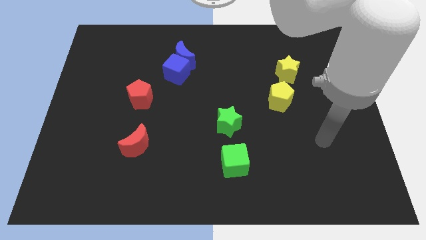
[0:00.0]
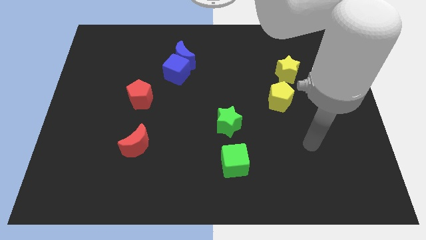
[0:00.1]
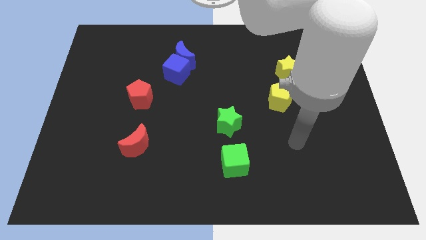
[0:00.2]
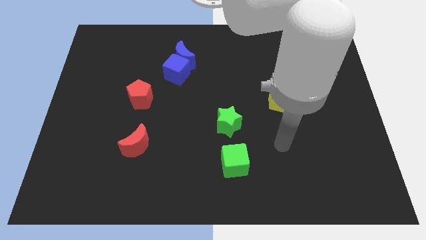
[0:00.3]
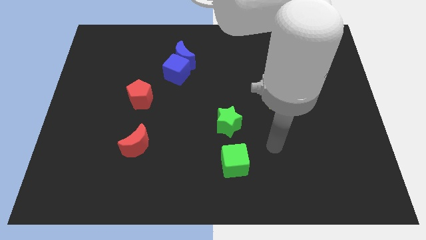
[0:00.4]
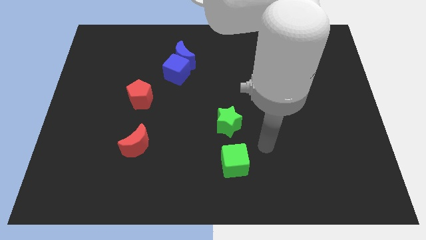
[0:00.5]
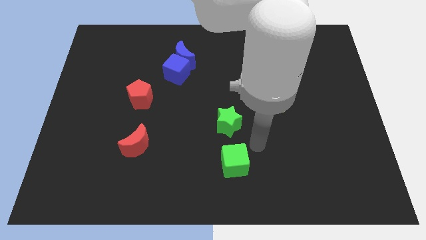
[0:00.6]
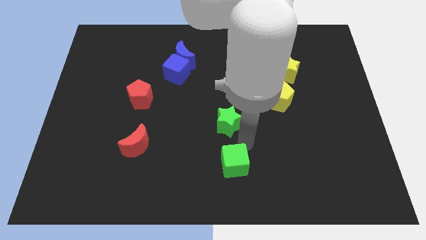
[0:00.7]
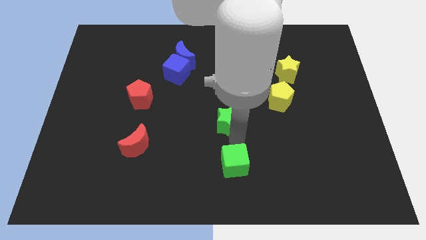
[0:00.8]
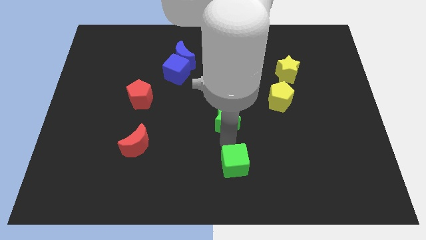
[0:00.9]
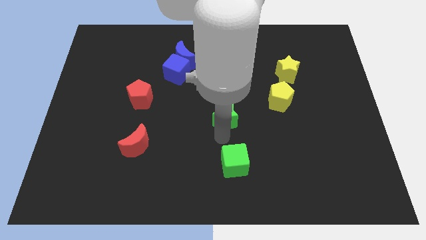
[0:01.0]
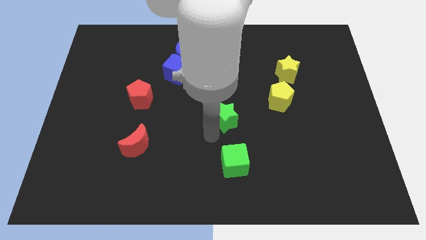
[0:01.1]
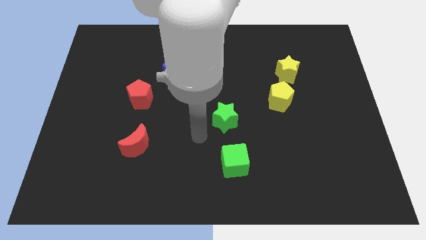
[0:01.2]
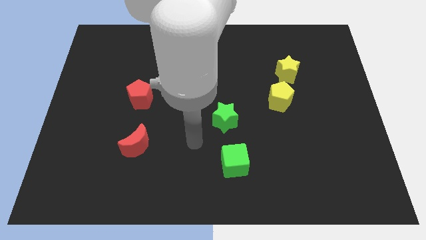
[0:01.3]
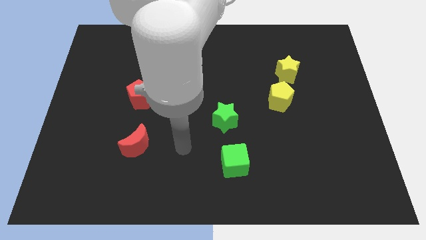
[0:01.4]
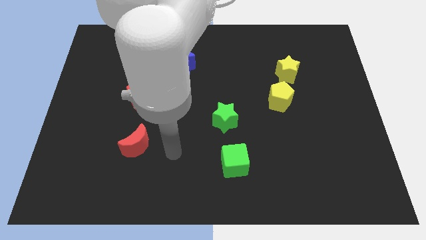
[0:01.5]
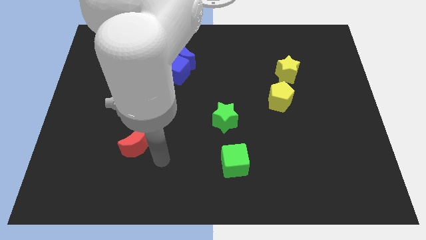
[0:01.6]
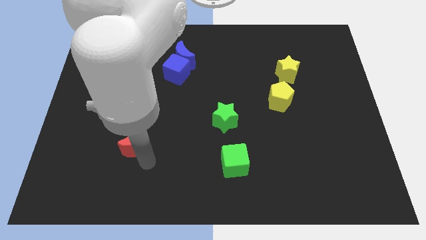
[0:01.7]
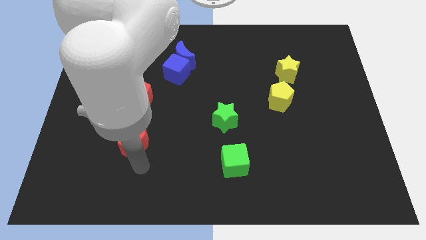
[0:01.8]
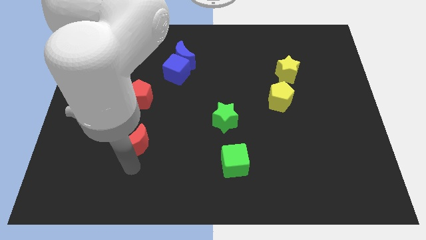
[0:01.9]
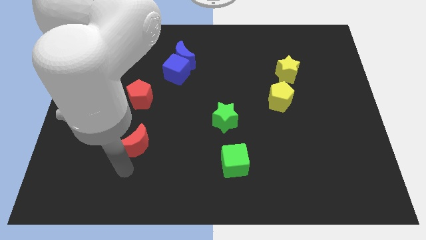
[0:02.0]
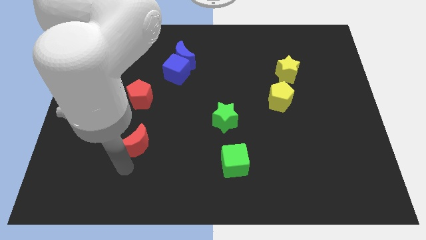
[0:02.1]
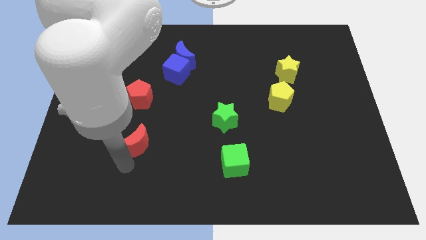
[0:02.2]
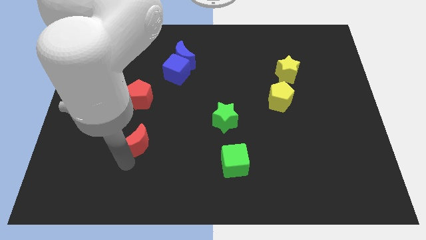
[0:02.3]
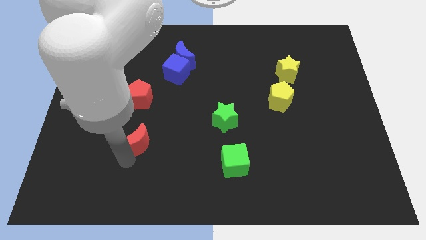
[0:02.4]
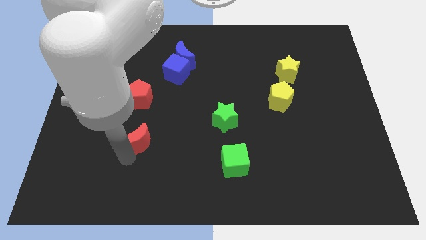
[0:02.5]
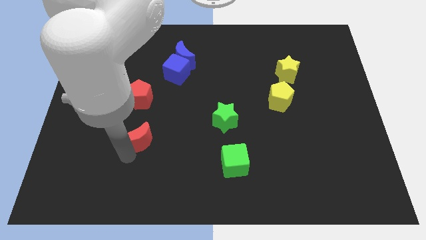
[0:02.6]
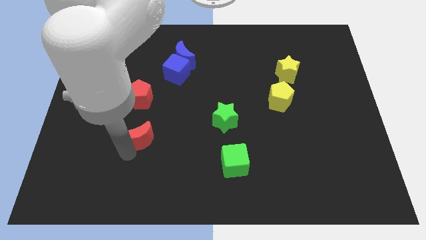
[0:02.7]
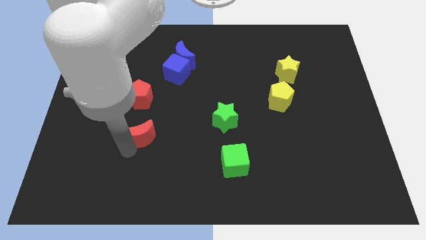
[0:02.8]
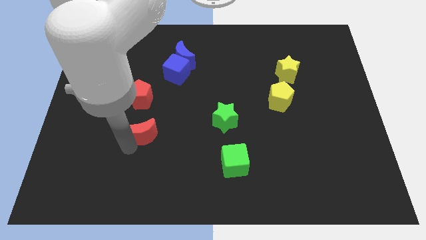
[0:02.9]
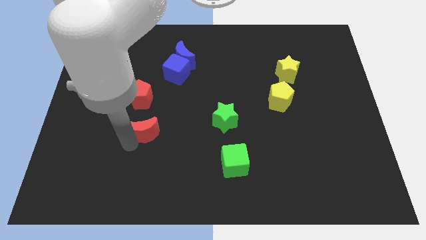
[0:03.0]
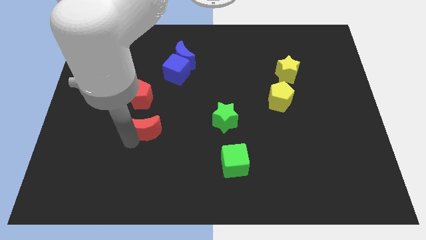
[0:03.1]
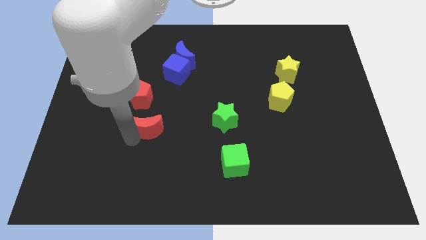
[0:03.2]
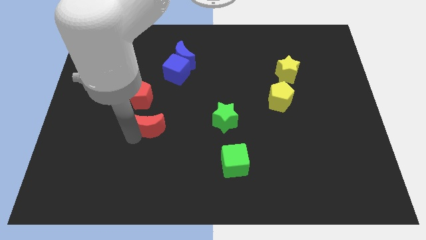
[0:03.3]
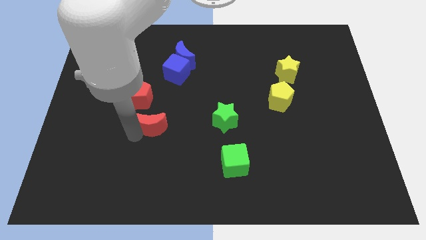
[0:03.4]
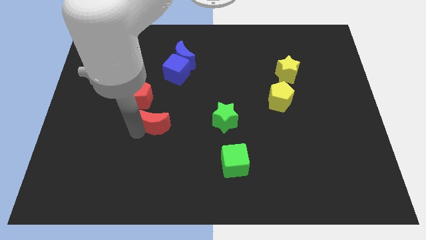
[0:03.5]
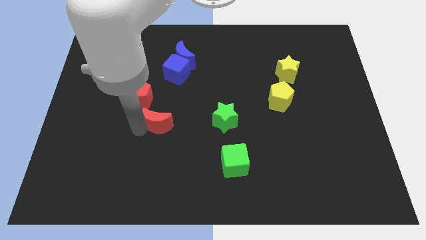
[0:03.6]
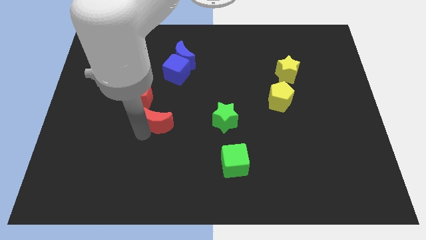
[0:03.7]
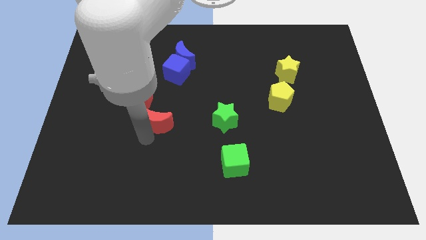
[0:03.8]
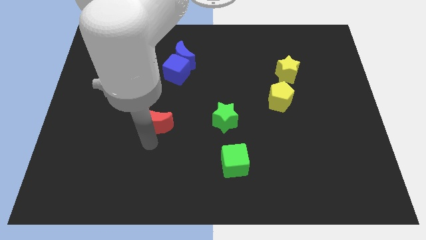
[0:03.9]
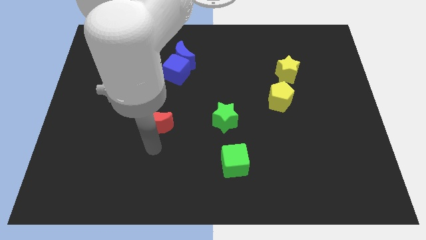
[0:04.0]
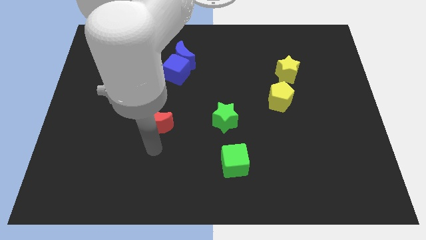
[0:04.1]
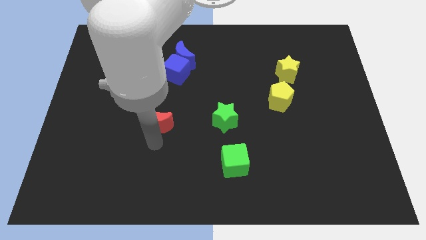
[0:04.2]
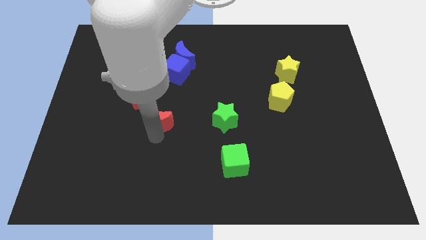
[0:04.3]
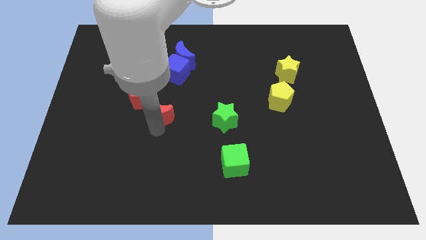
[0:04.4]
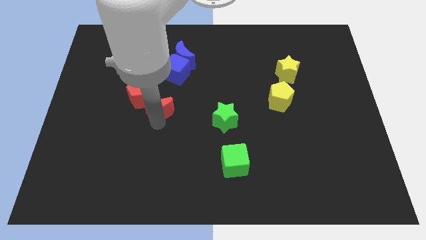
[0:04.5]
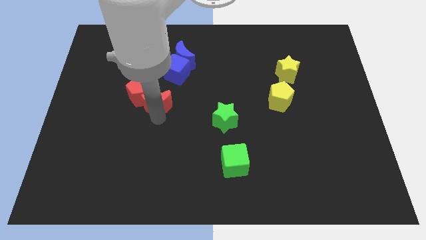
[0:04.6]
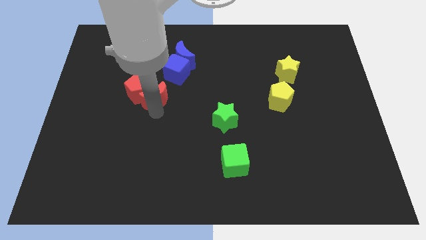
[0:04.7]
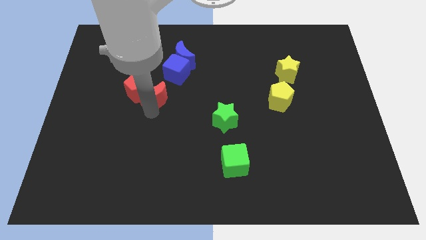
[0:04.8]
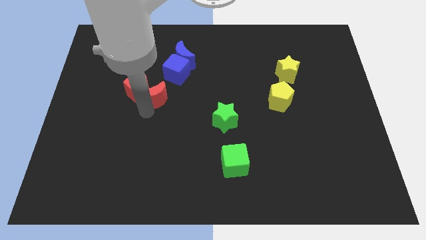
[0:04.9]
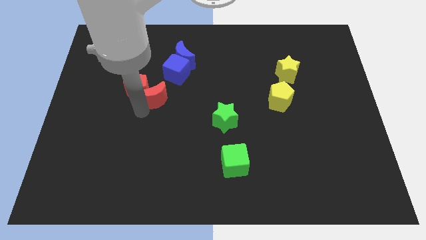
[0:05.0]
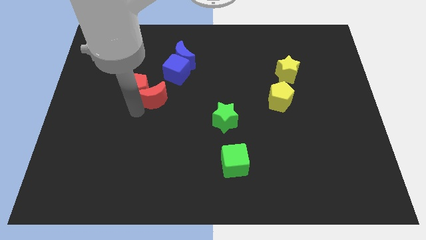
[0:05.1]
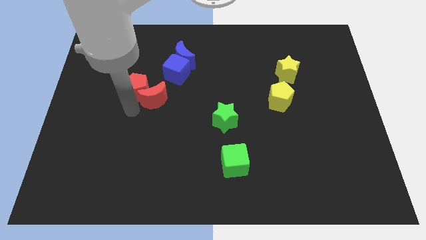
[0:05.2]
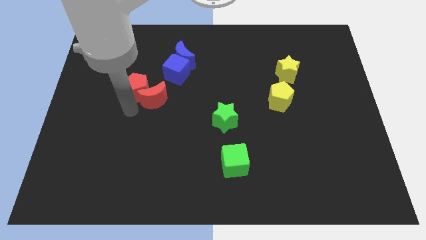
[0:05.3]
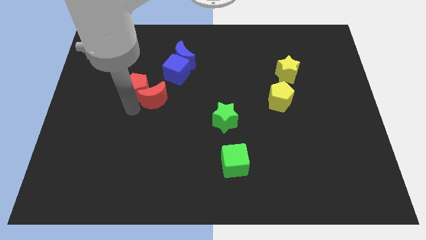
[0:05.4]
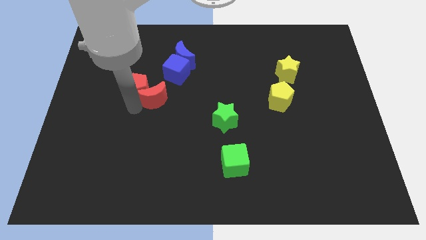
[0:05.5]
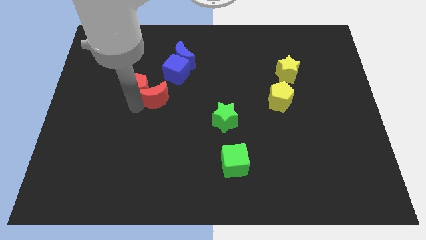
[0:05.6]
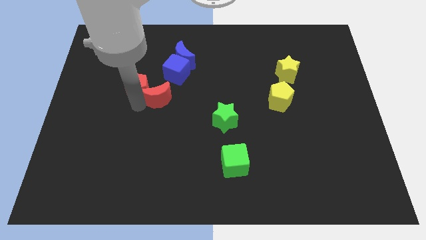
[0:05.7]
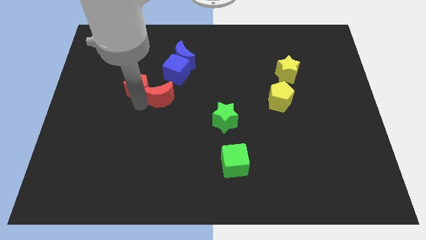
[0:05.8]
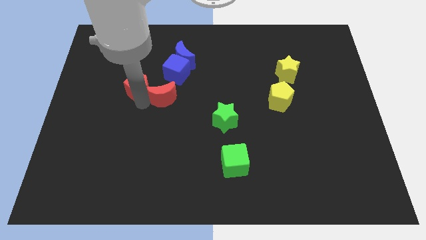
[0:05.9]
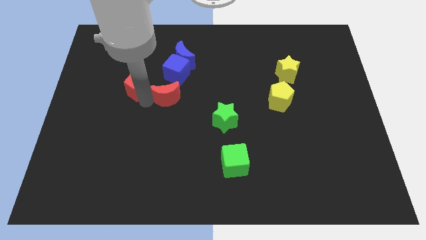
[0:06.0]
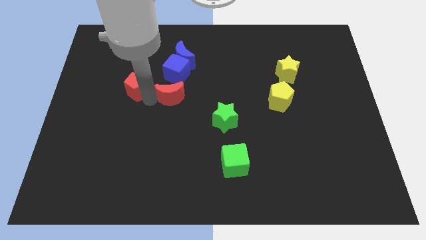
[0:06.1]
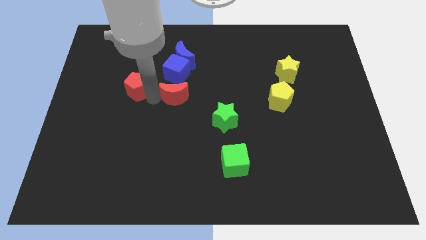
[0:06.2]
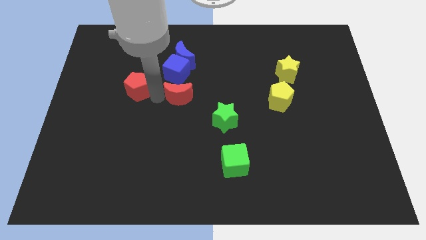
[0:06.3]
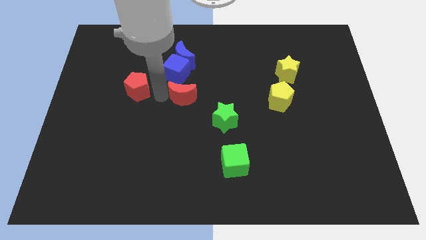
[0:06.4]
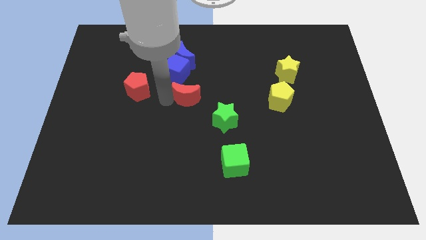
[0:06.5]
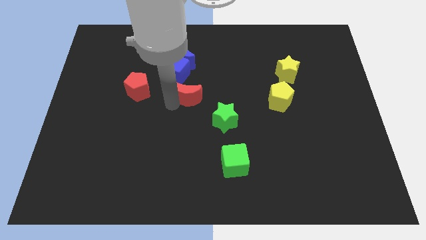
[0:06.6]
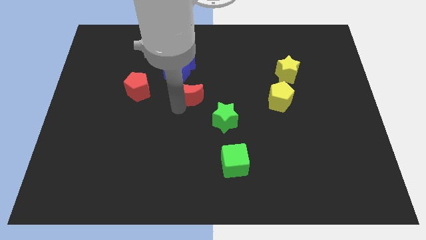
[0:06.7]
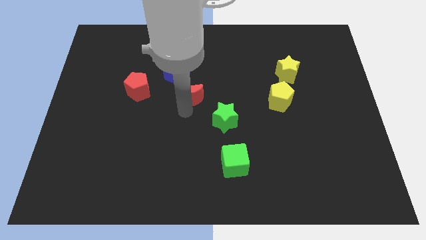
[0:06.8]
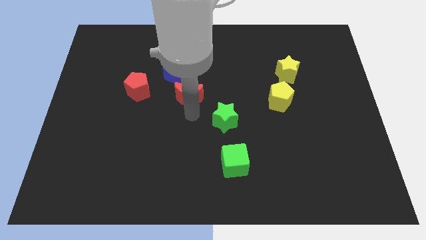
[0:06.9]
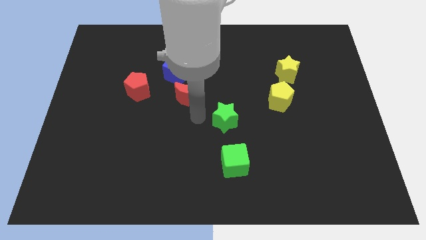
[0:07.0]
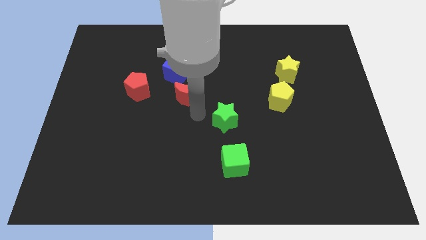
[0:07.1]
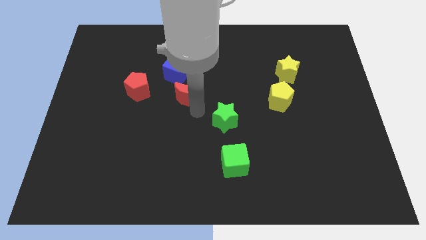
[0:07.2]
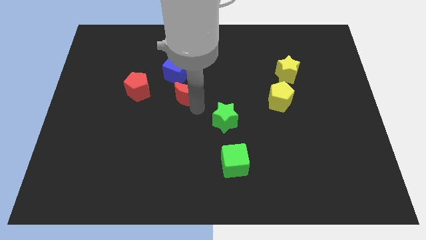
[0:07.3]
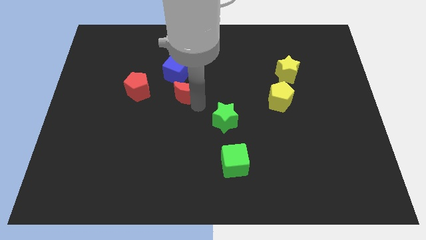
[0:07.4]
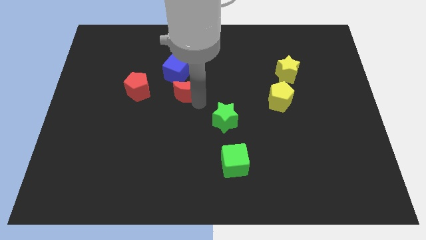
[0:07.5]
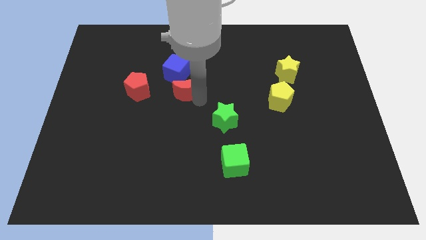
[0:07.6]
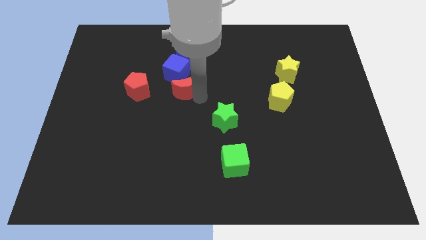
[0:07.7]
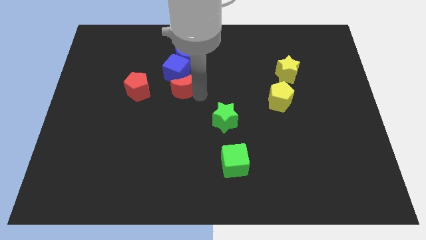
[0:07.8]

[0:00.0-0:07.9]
put the red moon towards the blue cube
